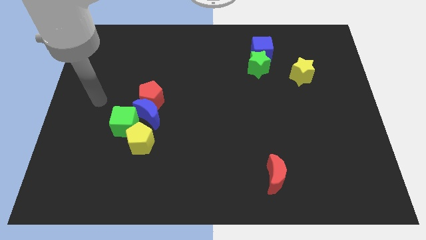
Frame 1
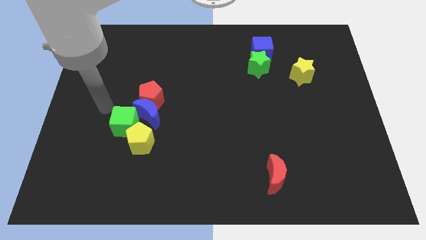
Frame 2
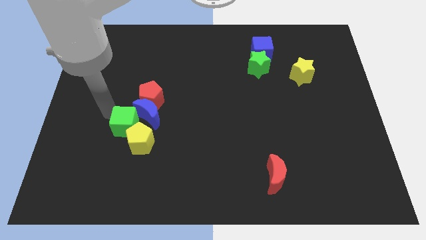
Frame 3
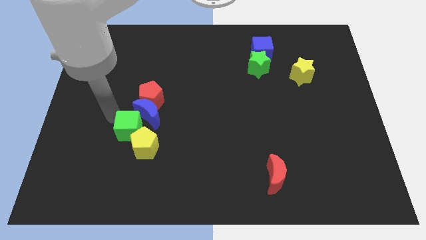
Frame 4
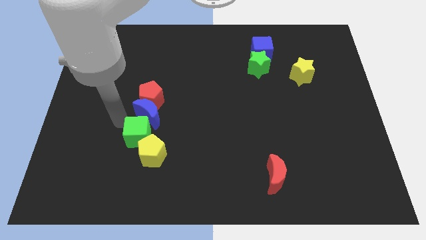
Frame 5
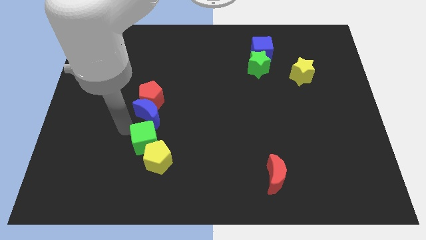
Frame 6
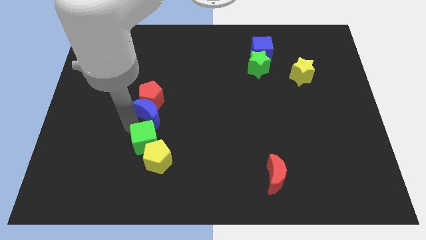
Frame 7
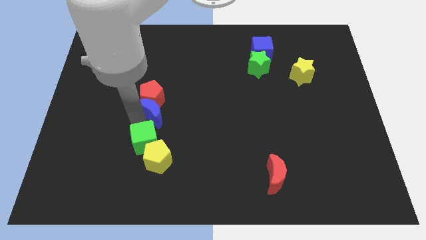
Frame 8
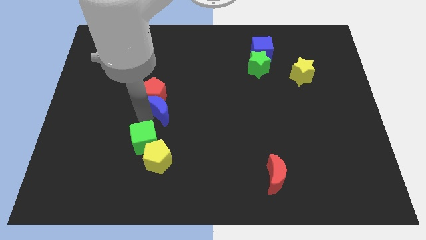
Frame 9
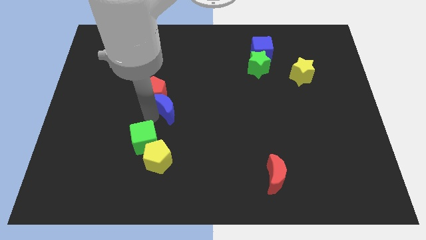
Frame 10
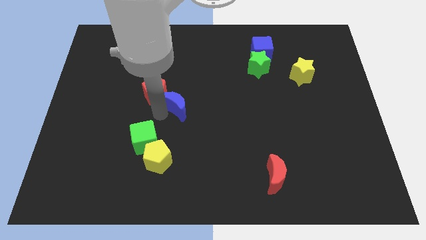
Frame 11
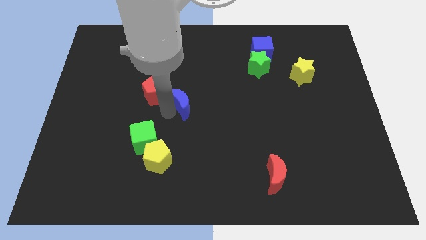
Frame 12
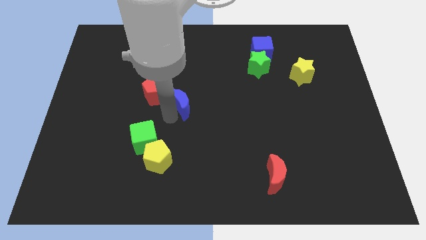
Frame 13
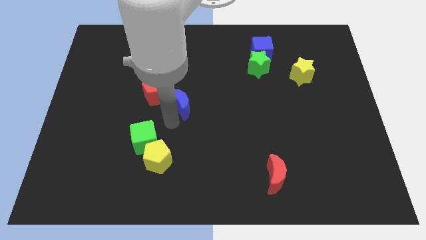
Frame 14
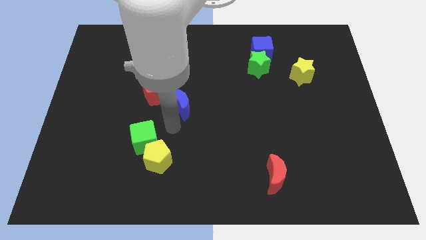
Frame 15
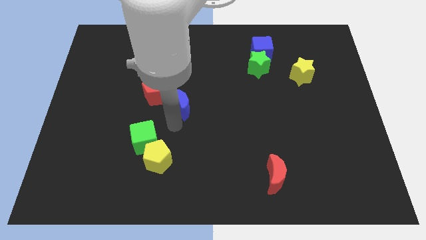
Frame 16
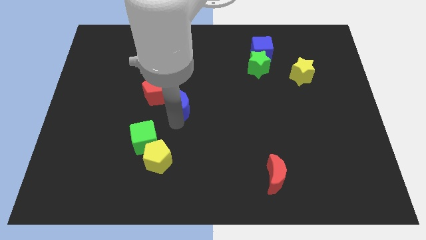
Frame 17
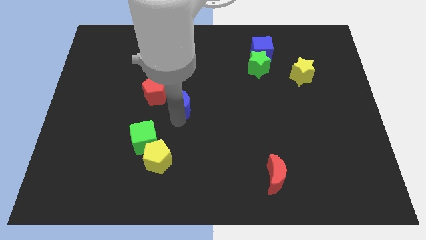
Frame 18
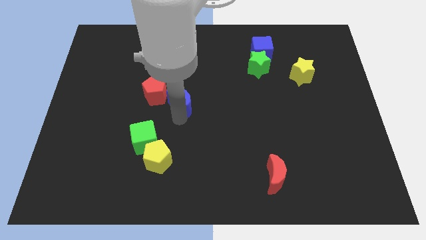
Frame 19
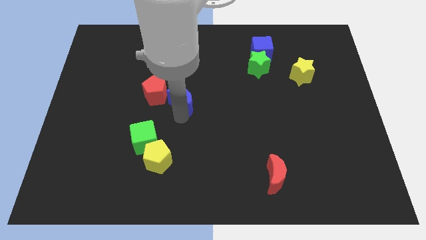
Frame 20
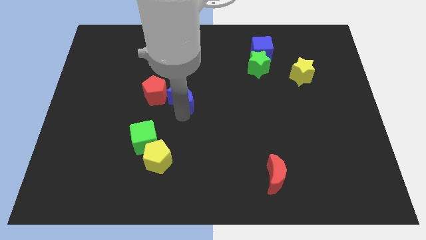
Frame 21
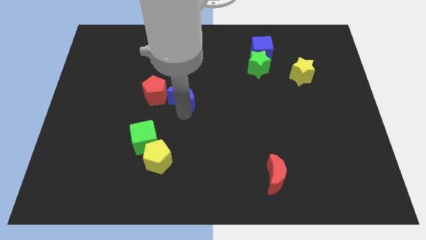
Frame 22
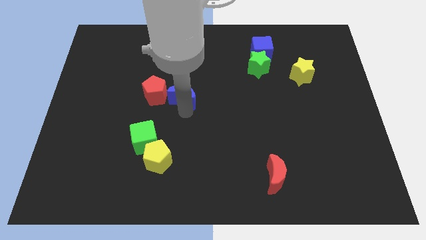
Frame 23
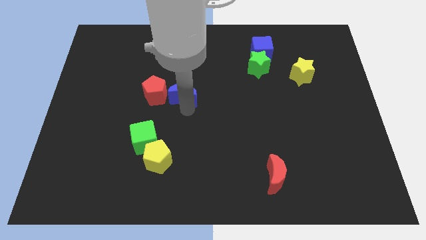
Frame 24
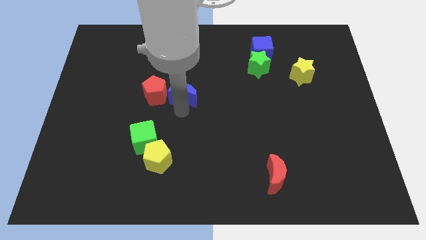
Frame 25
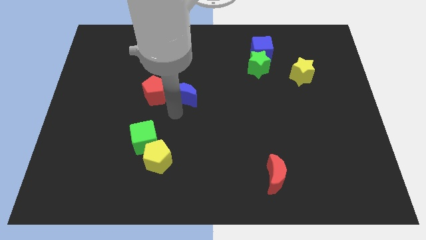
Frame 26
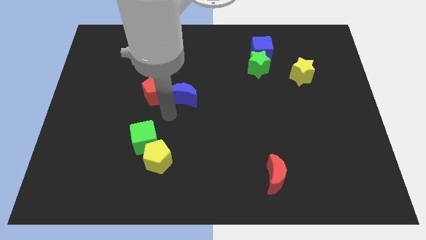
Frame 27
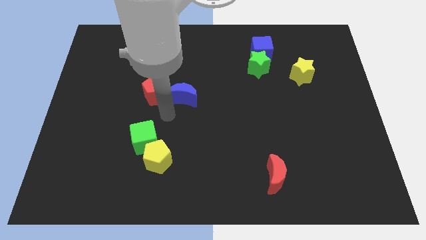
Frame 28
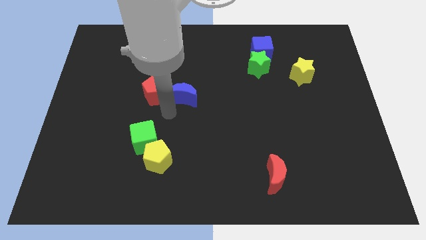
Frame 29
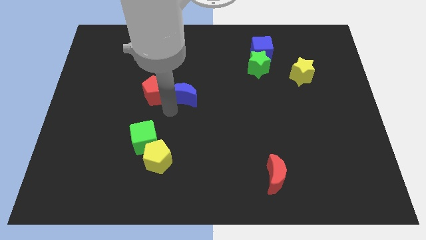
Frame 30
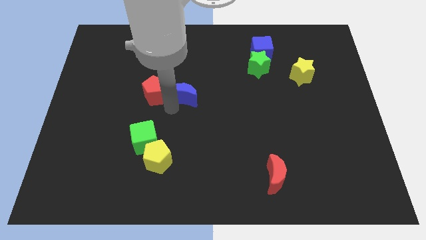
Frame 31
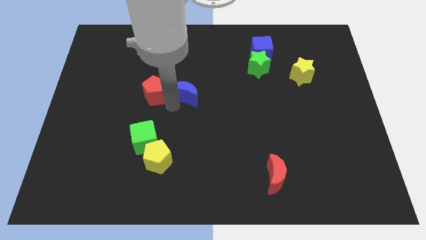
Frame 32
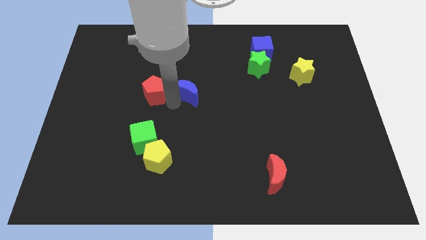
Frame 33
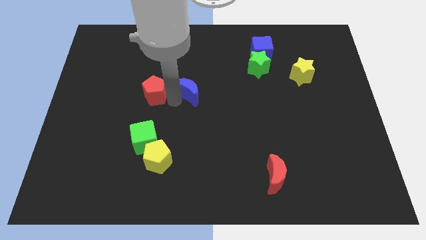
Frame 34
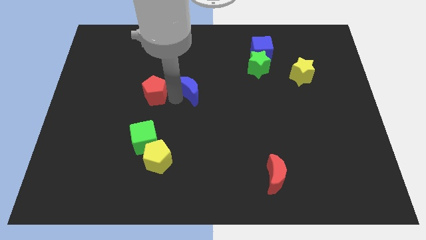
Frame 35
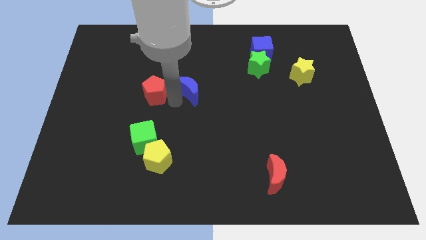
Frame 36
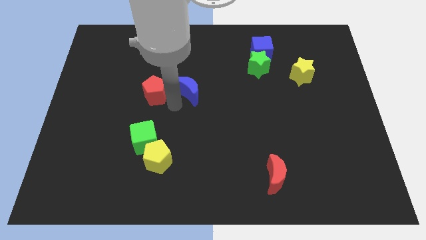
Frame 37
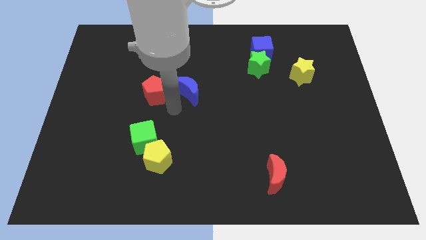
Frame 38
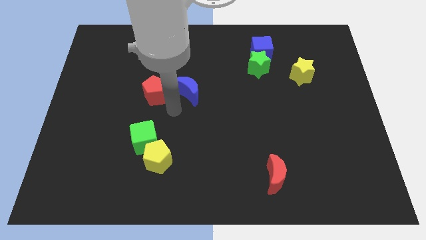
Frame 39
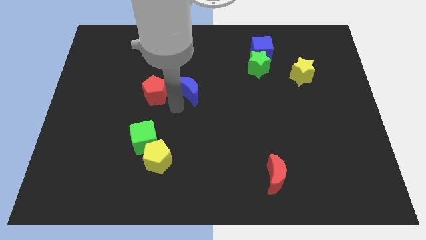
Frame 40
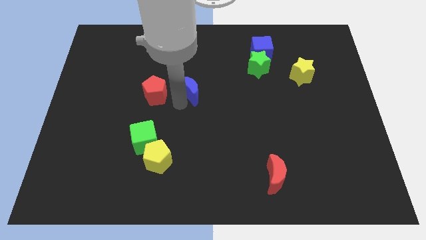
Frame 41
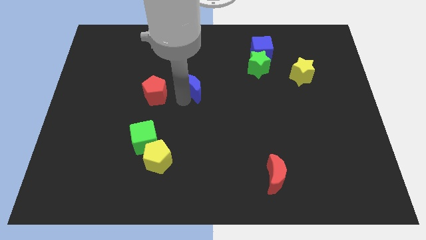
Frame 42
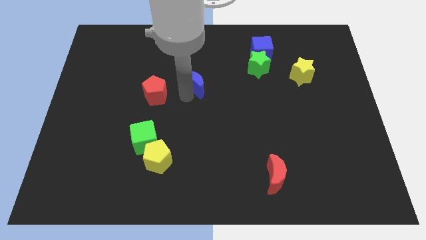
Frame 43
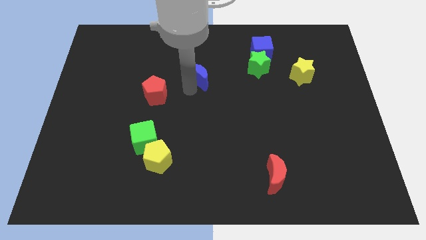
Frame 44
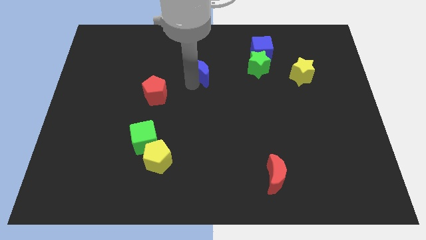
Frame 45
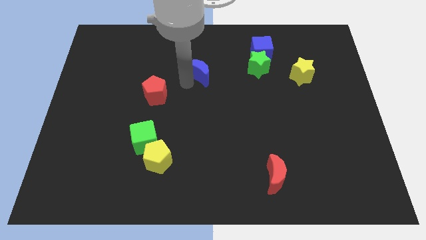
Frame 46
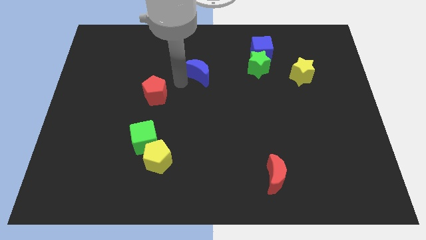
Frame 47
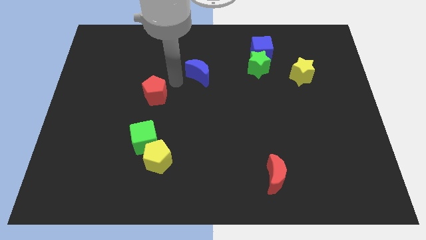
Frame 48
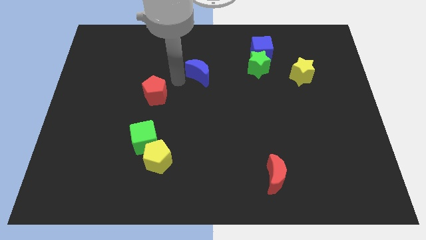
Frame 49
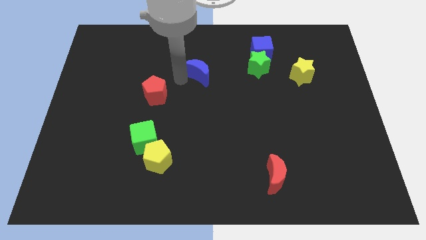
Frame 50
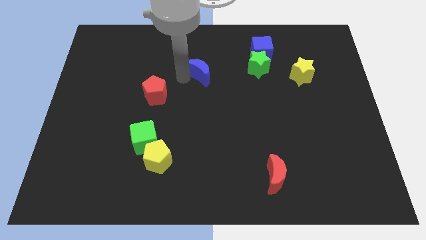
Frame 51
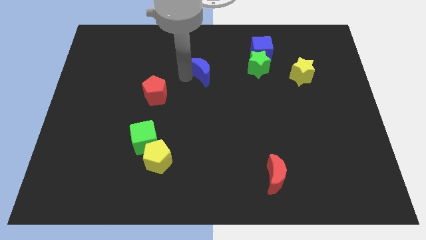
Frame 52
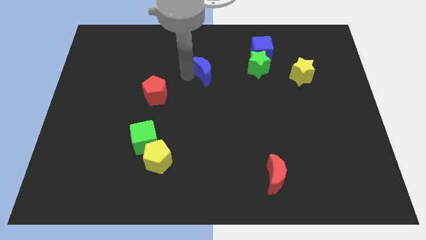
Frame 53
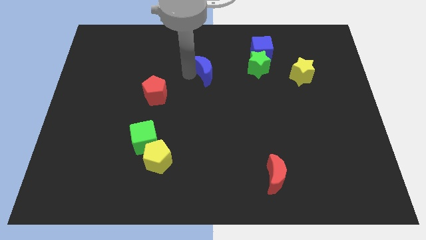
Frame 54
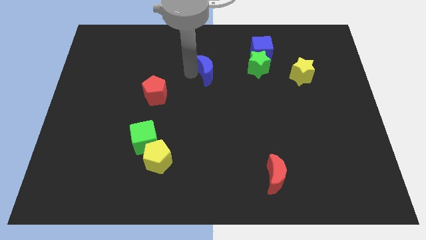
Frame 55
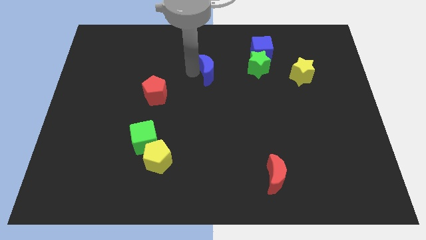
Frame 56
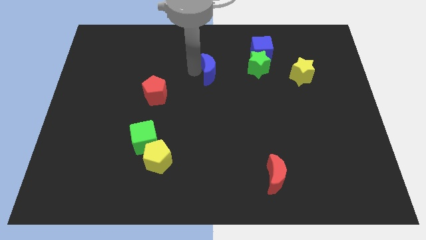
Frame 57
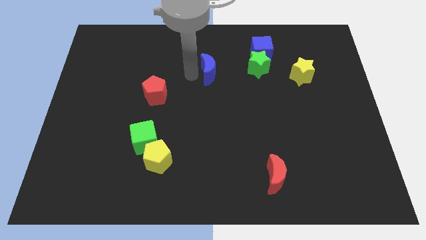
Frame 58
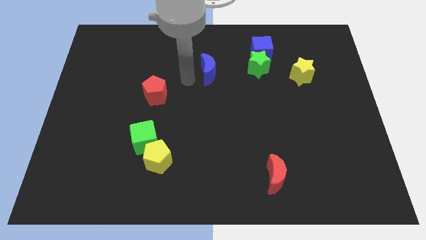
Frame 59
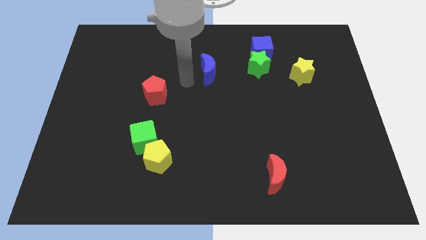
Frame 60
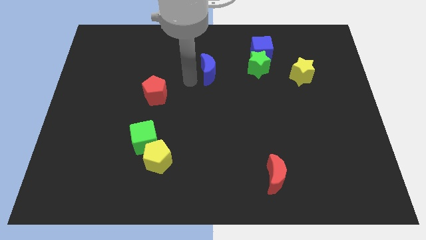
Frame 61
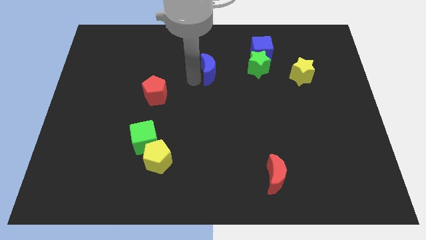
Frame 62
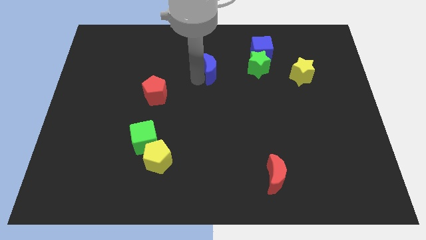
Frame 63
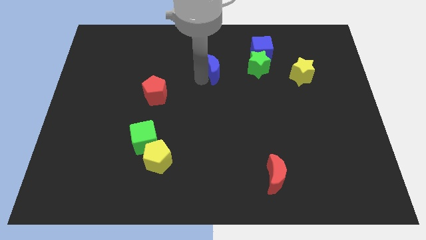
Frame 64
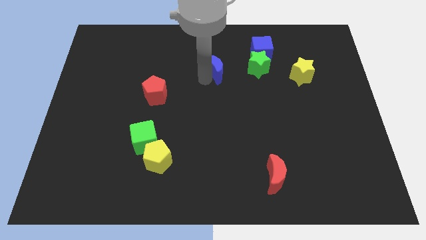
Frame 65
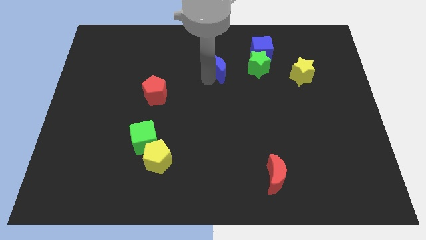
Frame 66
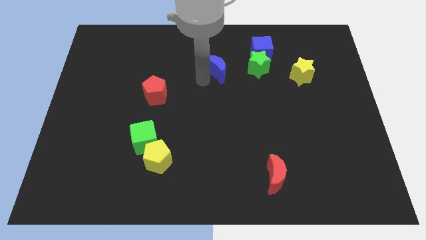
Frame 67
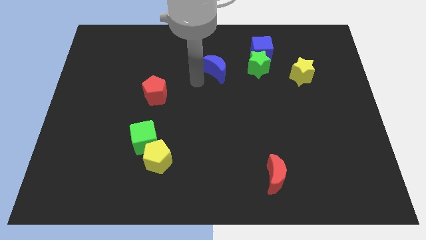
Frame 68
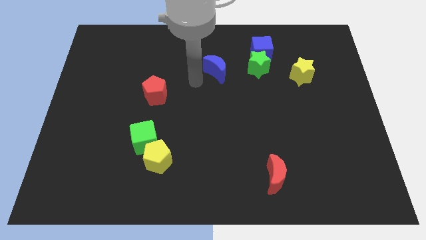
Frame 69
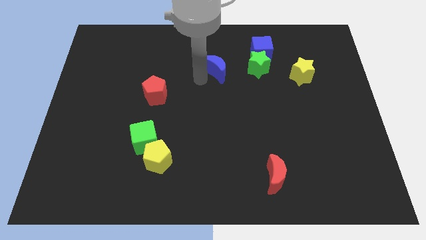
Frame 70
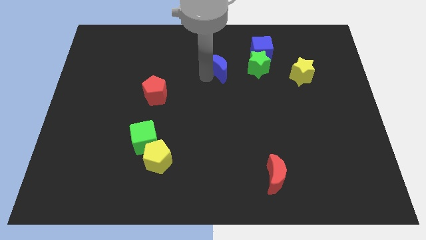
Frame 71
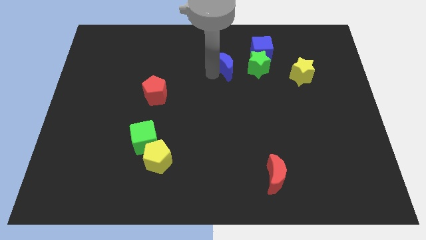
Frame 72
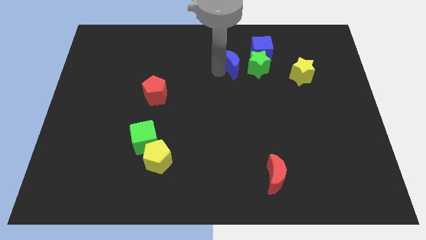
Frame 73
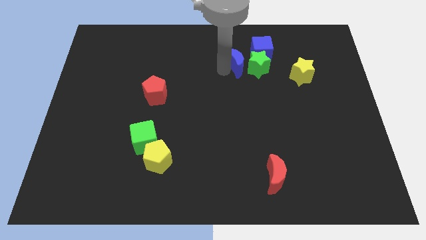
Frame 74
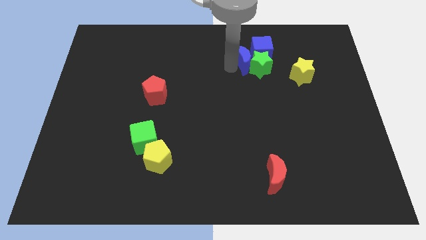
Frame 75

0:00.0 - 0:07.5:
put the blue moon to the blue cube

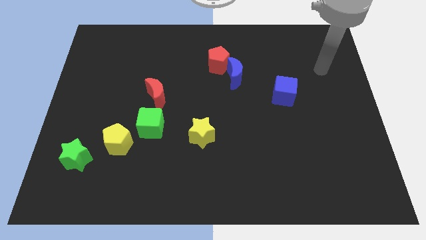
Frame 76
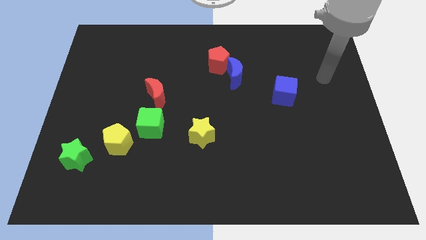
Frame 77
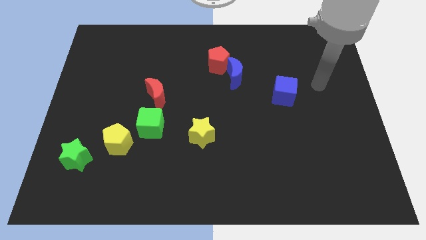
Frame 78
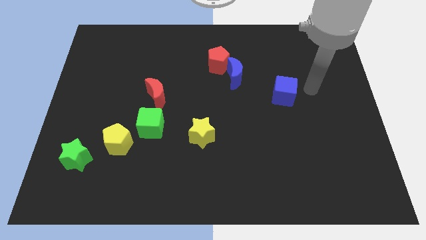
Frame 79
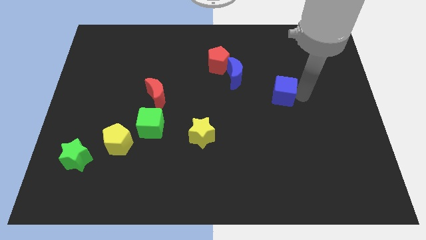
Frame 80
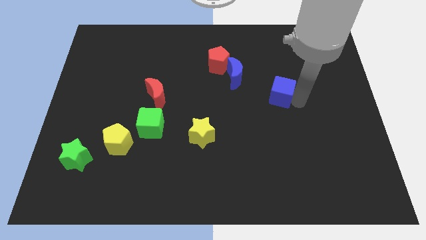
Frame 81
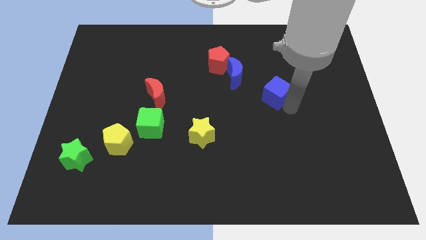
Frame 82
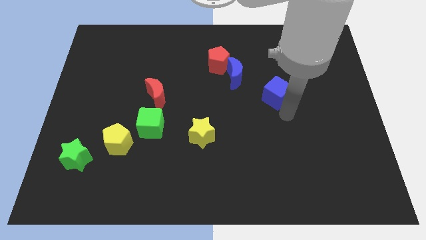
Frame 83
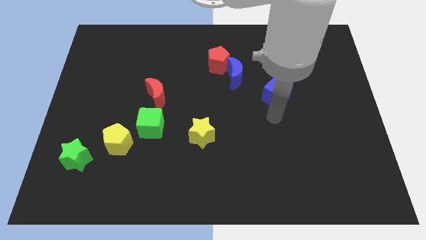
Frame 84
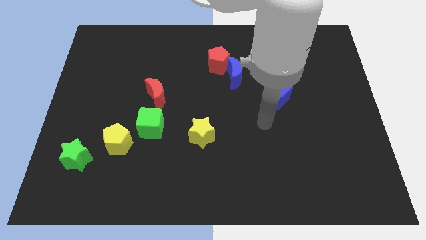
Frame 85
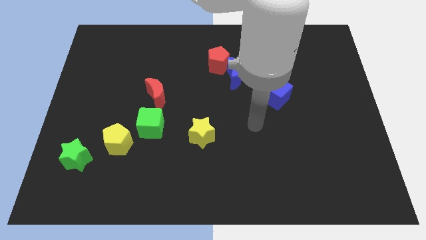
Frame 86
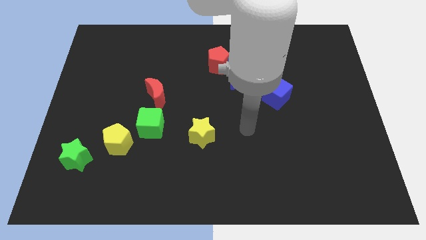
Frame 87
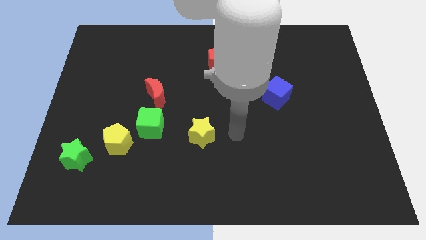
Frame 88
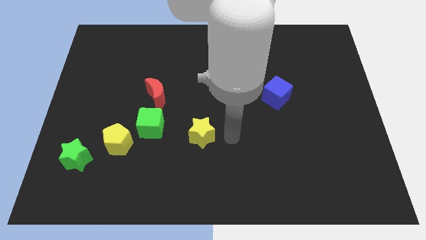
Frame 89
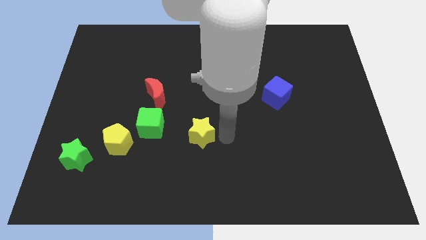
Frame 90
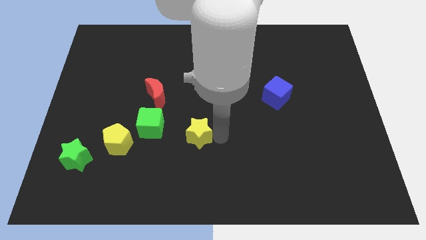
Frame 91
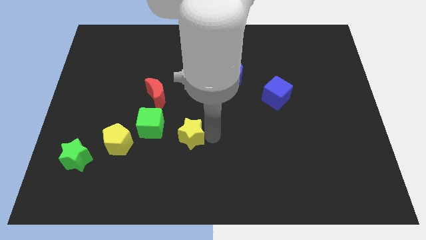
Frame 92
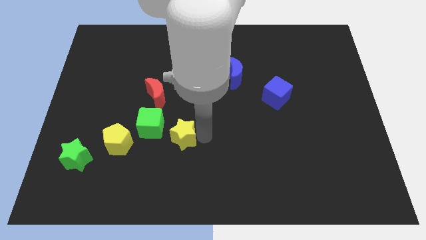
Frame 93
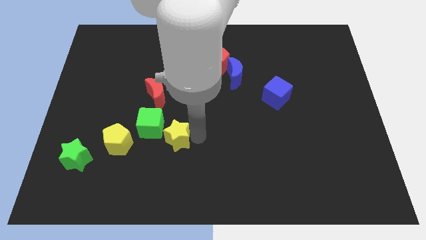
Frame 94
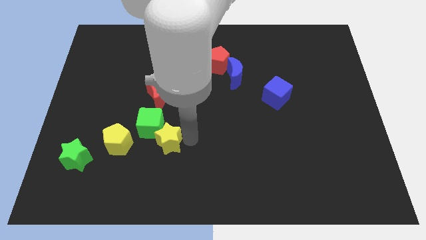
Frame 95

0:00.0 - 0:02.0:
move the yellow star to the green cube
